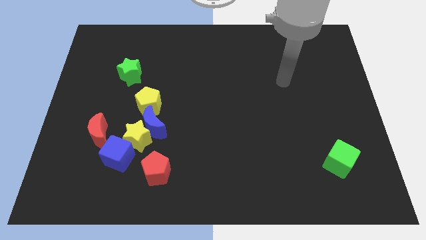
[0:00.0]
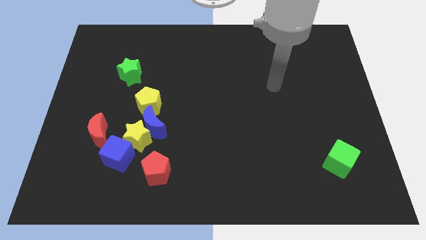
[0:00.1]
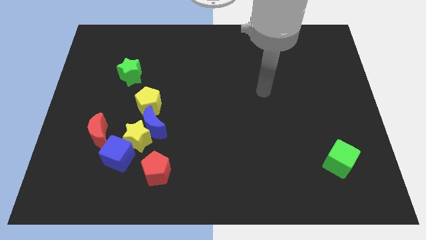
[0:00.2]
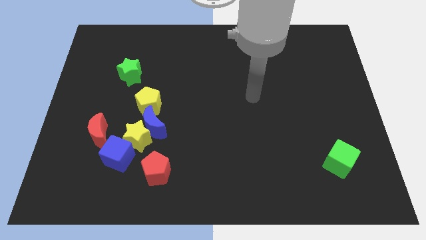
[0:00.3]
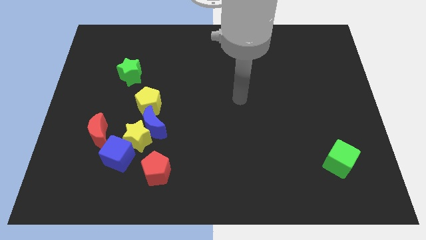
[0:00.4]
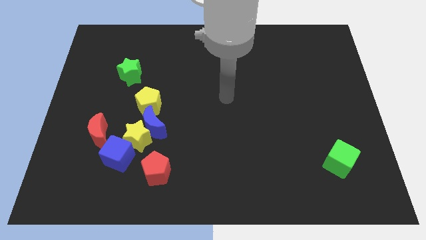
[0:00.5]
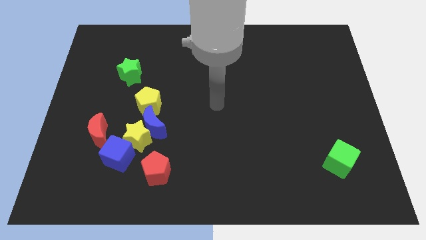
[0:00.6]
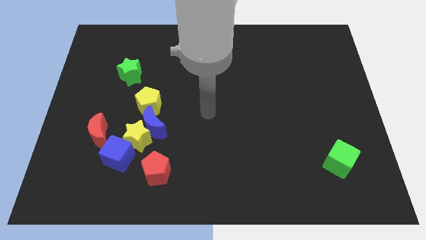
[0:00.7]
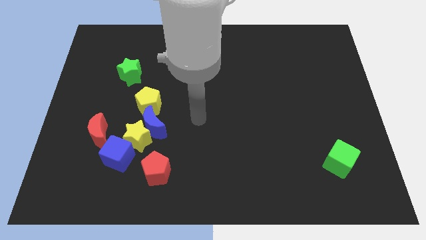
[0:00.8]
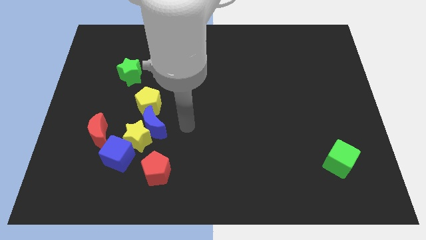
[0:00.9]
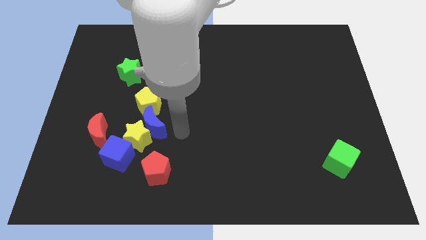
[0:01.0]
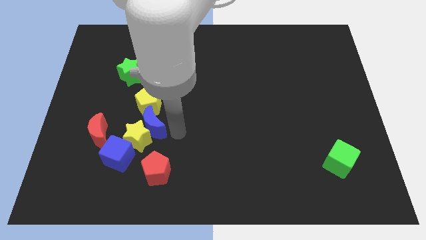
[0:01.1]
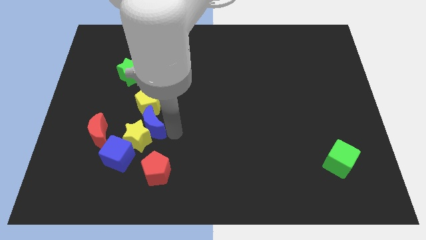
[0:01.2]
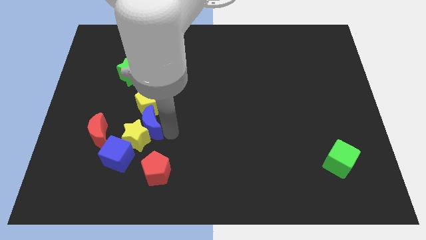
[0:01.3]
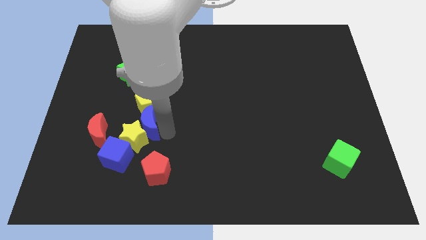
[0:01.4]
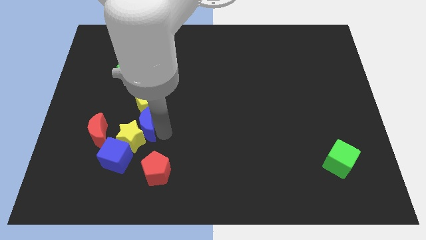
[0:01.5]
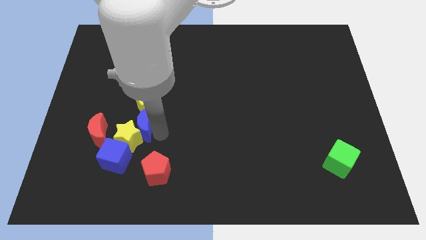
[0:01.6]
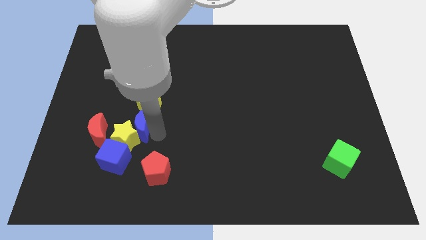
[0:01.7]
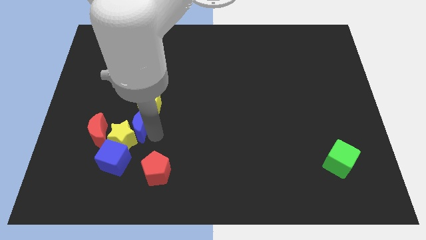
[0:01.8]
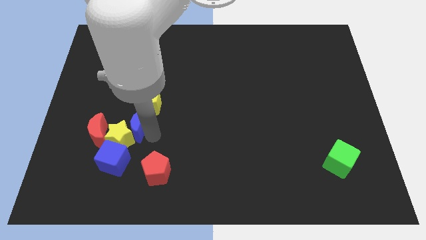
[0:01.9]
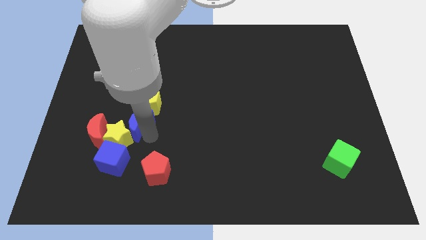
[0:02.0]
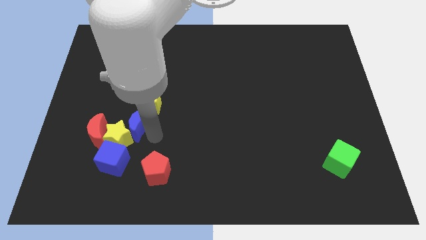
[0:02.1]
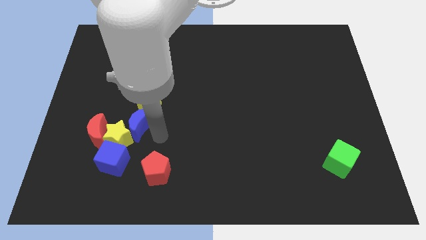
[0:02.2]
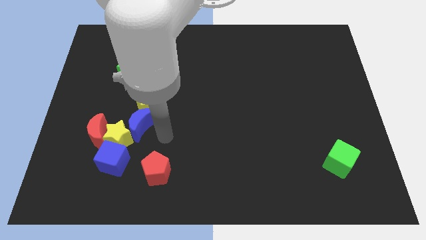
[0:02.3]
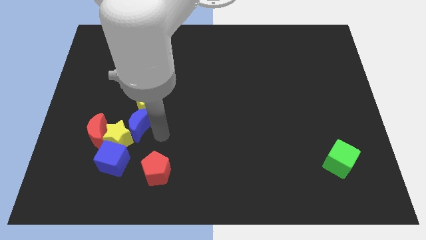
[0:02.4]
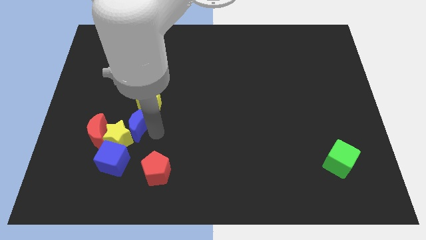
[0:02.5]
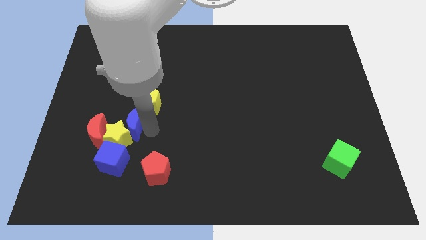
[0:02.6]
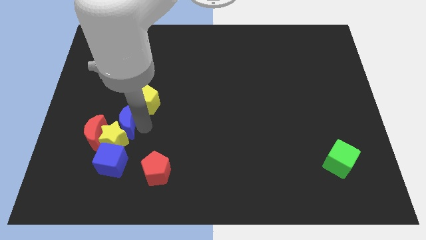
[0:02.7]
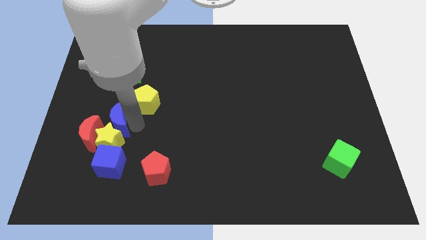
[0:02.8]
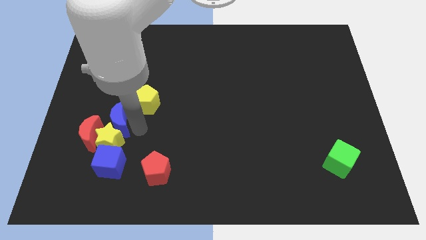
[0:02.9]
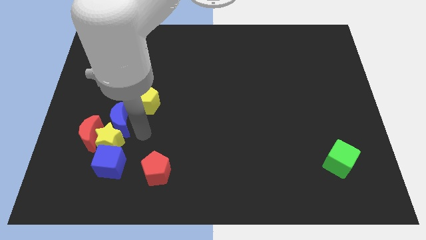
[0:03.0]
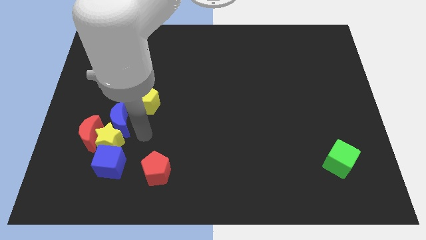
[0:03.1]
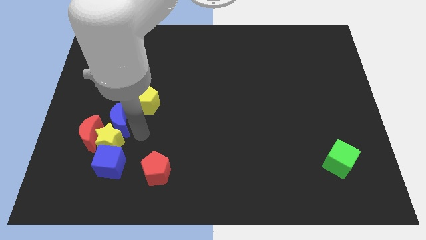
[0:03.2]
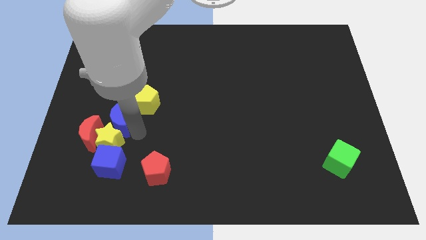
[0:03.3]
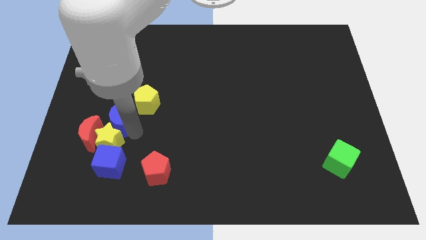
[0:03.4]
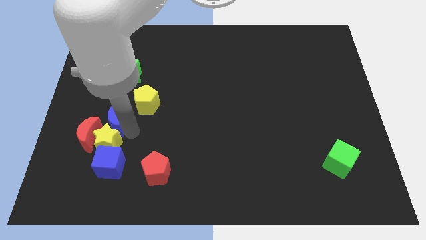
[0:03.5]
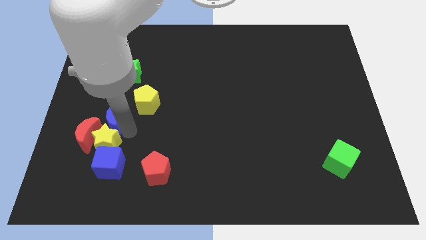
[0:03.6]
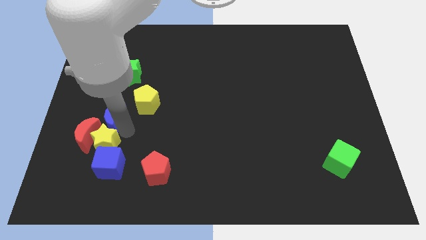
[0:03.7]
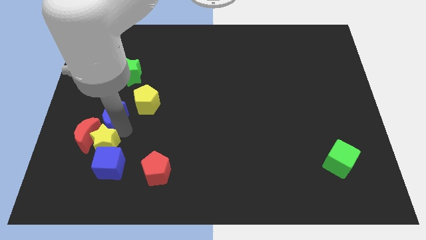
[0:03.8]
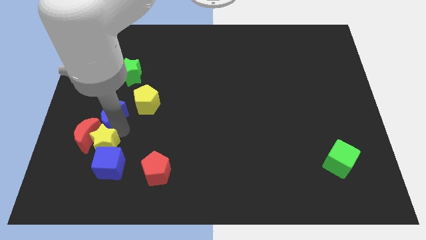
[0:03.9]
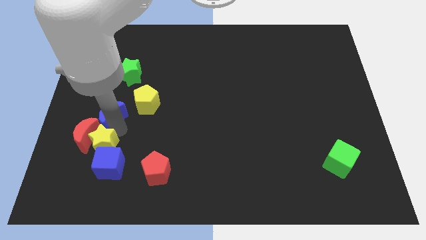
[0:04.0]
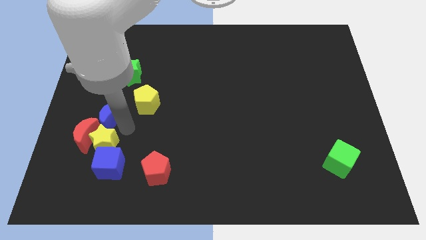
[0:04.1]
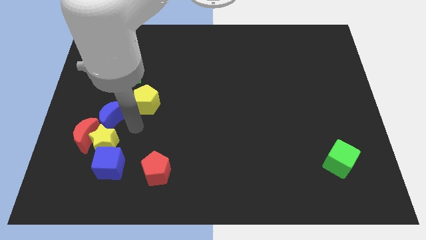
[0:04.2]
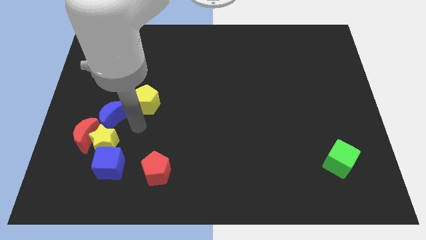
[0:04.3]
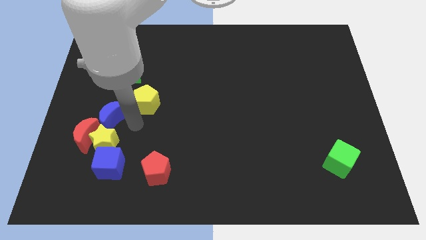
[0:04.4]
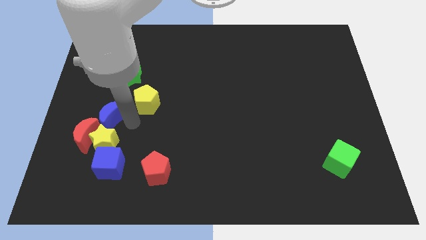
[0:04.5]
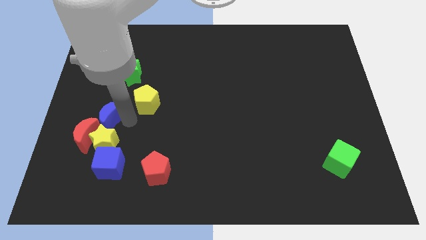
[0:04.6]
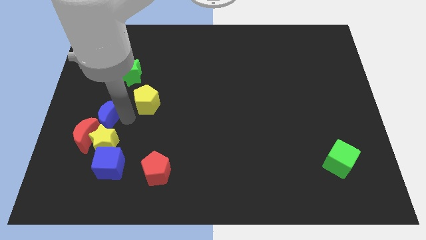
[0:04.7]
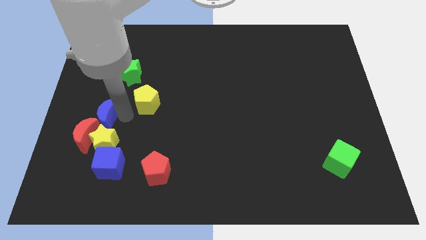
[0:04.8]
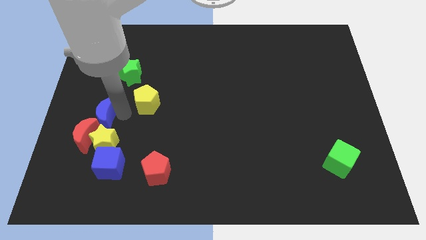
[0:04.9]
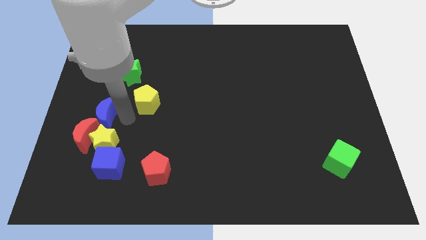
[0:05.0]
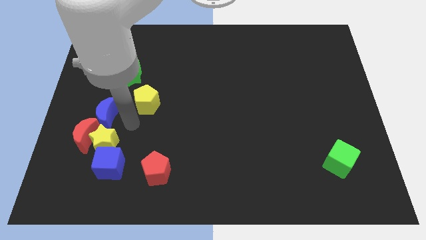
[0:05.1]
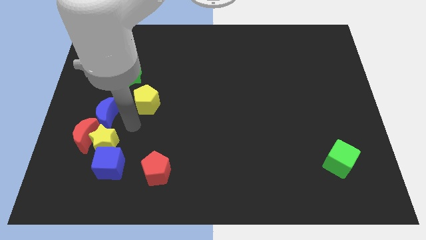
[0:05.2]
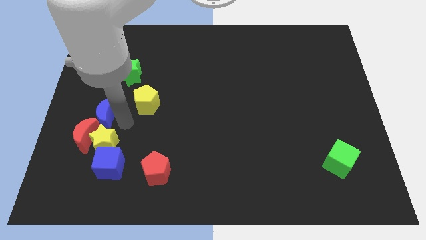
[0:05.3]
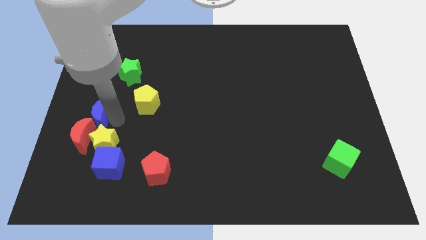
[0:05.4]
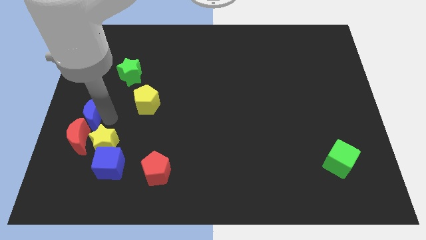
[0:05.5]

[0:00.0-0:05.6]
push the blue moon to the center left

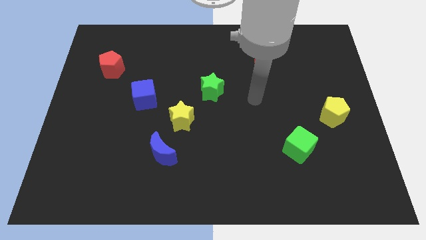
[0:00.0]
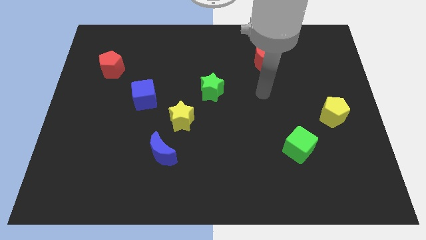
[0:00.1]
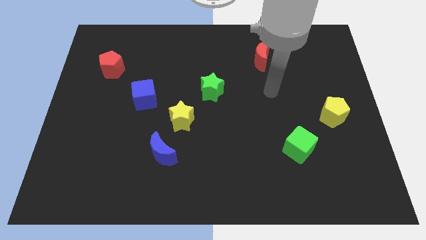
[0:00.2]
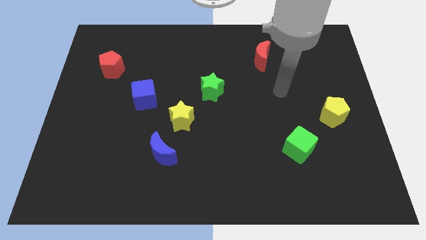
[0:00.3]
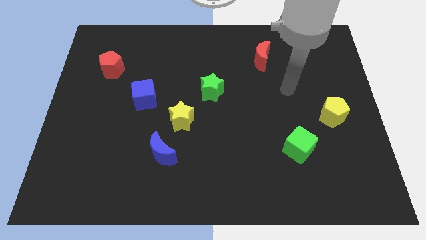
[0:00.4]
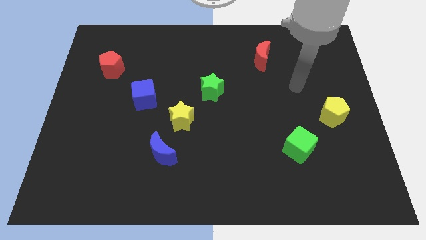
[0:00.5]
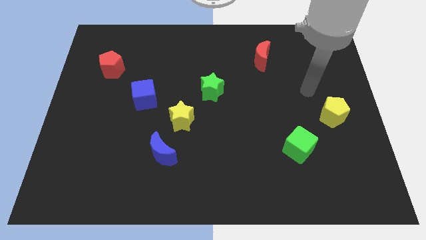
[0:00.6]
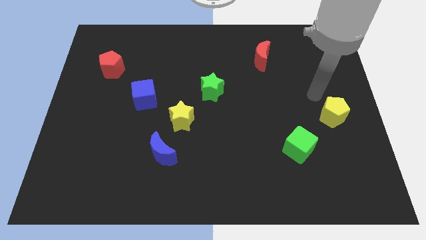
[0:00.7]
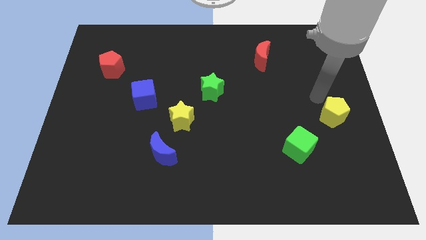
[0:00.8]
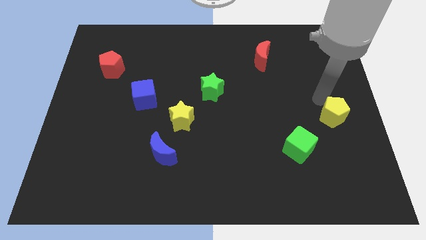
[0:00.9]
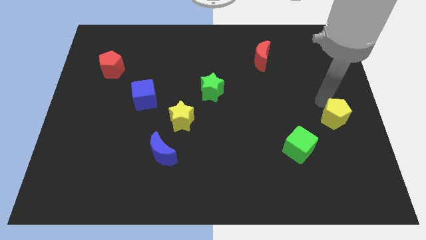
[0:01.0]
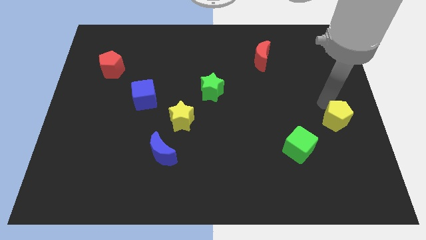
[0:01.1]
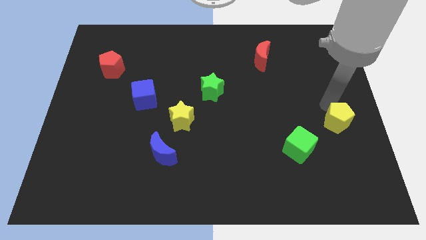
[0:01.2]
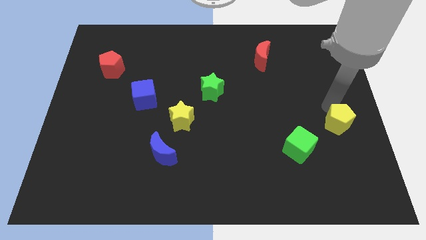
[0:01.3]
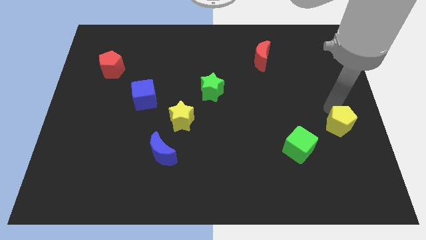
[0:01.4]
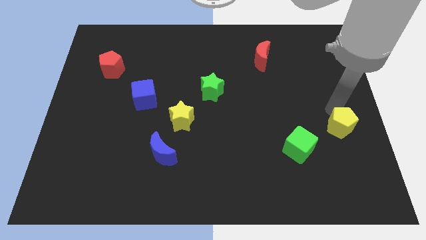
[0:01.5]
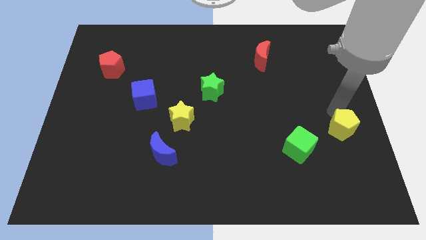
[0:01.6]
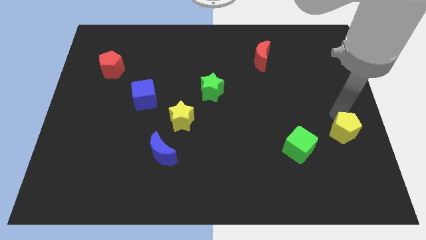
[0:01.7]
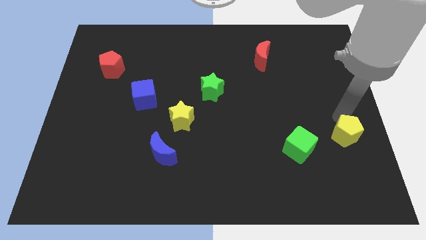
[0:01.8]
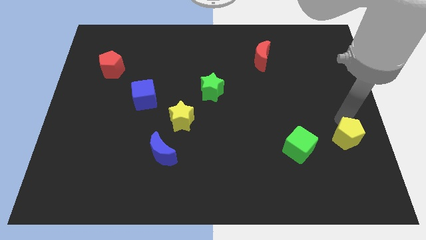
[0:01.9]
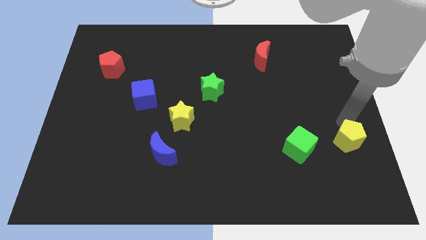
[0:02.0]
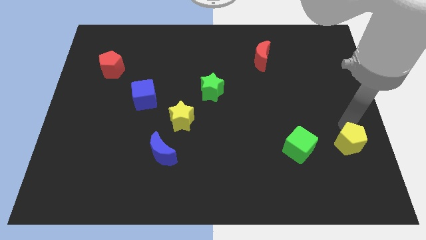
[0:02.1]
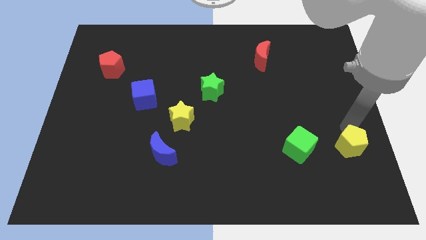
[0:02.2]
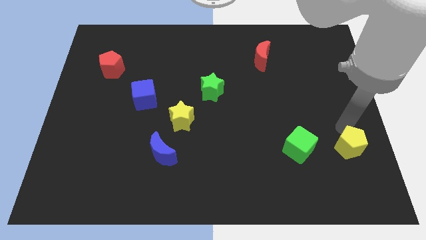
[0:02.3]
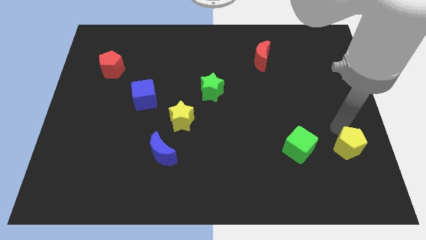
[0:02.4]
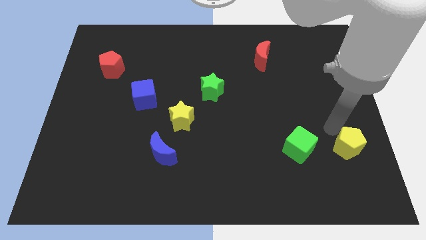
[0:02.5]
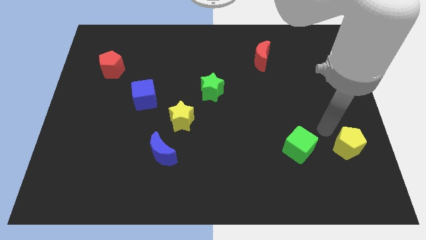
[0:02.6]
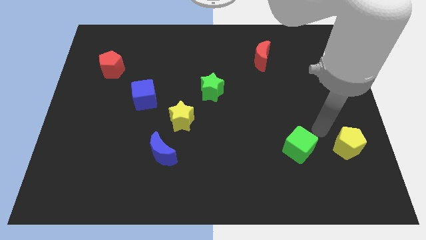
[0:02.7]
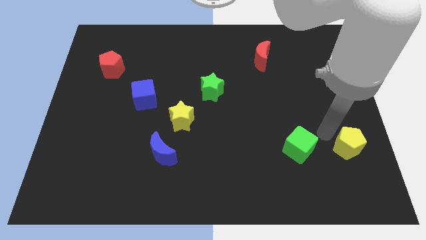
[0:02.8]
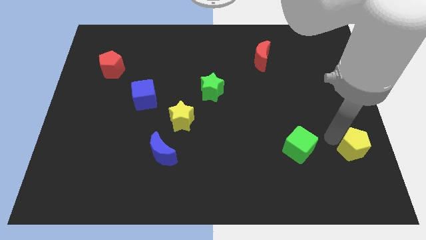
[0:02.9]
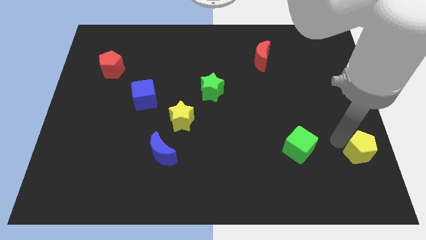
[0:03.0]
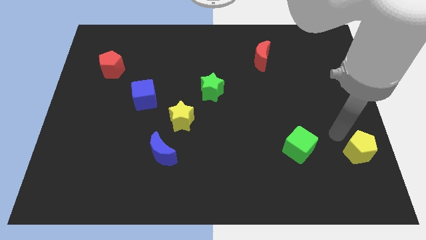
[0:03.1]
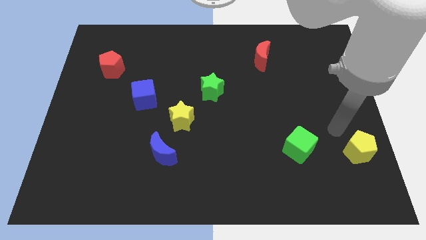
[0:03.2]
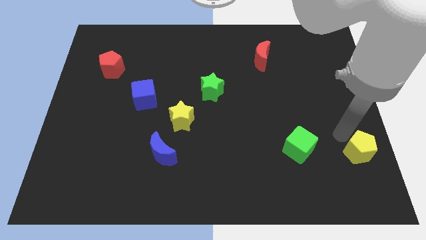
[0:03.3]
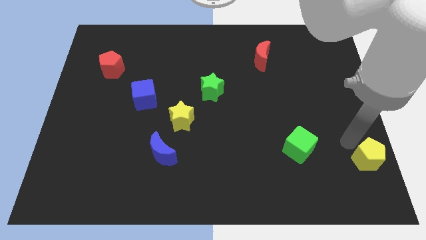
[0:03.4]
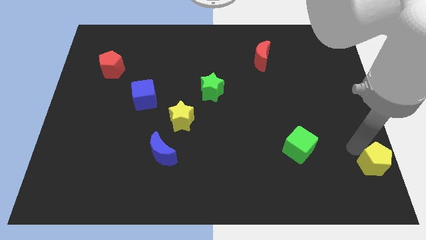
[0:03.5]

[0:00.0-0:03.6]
put the yellow pentagon to the bottom right of the board
